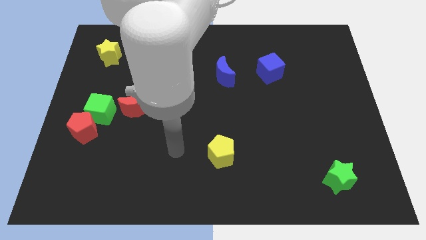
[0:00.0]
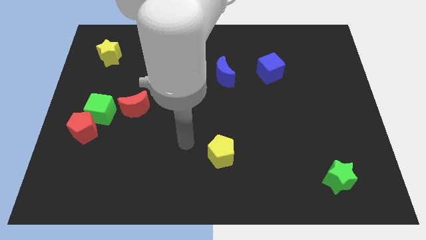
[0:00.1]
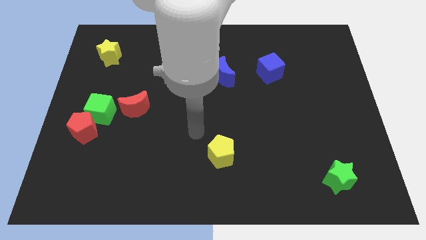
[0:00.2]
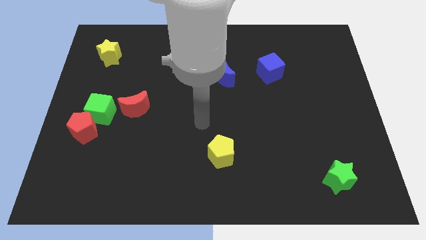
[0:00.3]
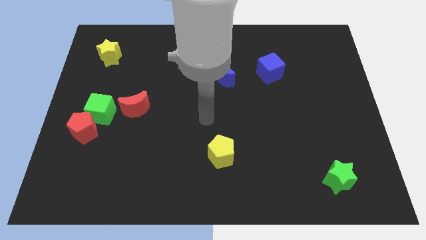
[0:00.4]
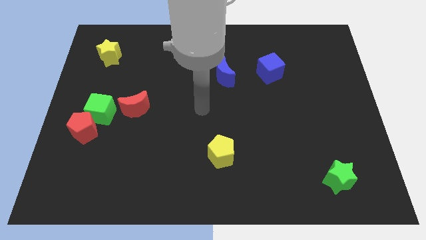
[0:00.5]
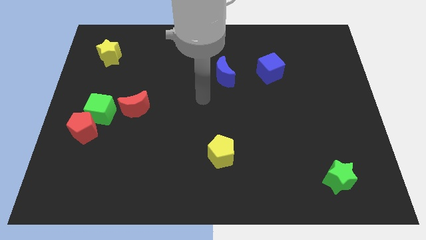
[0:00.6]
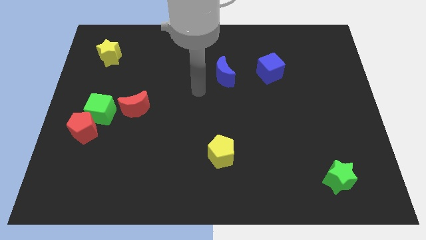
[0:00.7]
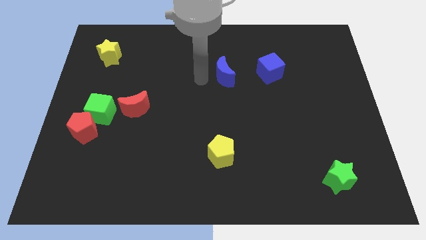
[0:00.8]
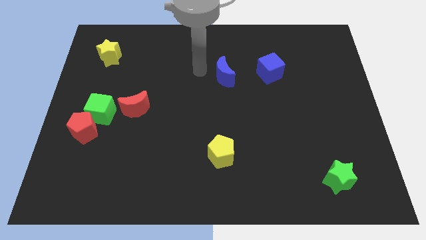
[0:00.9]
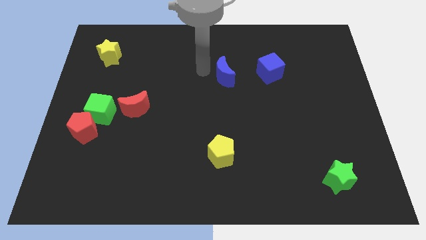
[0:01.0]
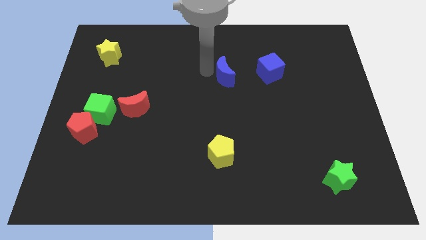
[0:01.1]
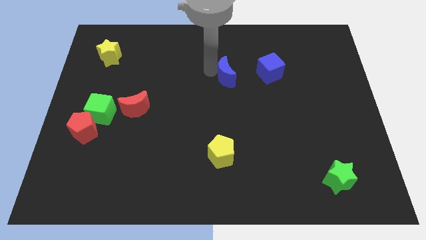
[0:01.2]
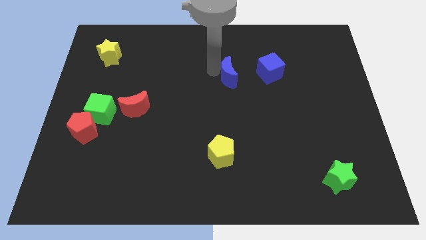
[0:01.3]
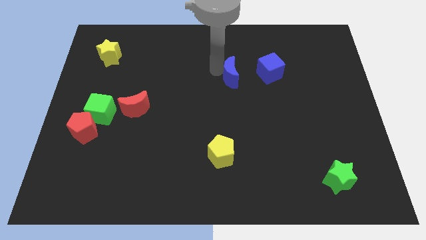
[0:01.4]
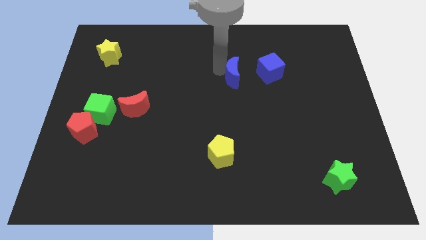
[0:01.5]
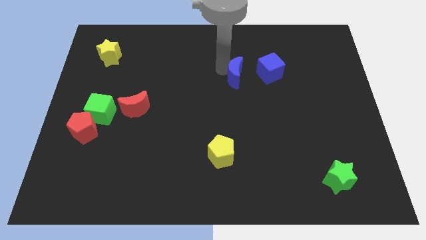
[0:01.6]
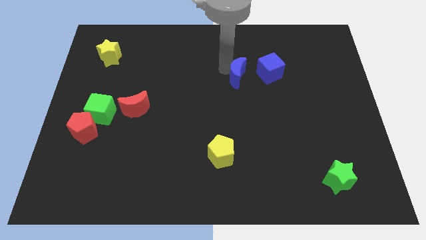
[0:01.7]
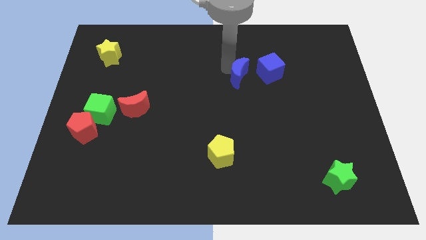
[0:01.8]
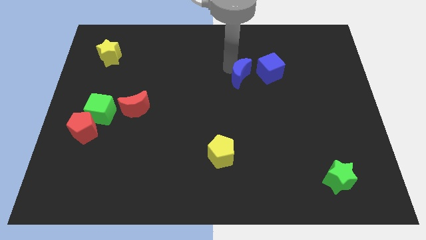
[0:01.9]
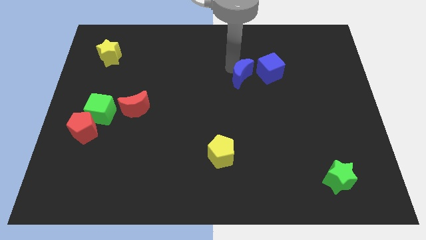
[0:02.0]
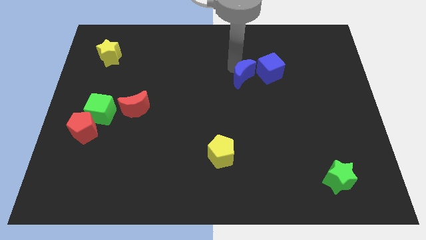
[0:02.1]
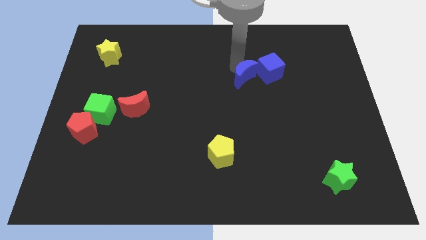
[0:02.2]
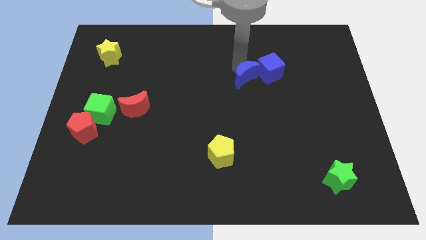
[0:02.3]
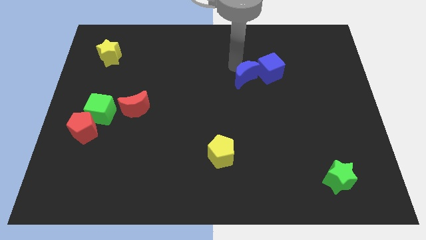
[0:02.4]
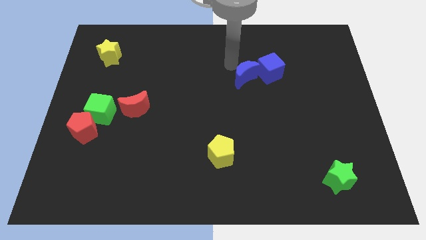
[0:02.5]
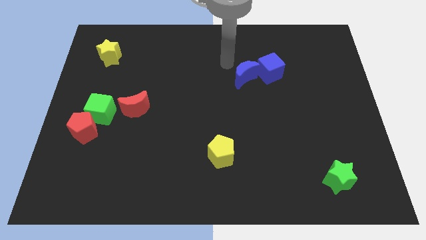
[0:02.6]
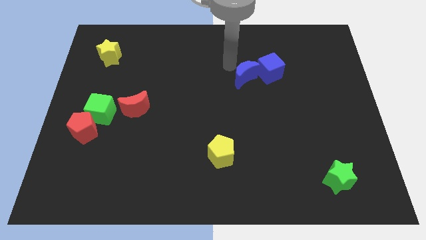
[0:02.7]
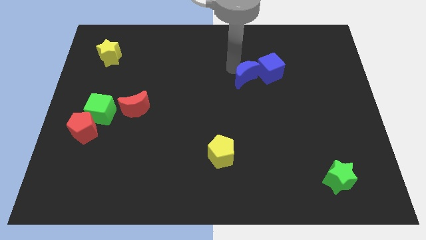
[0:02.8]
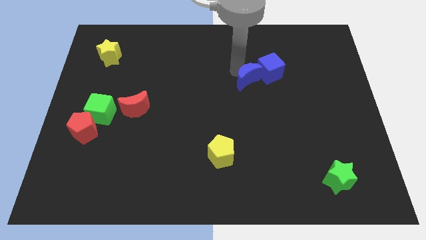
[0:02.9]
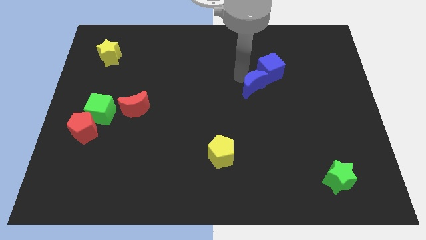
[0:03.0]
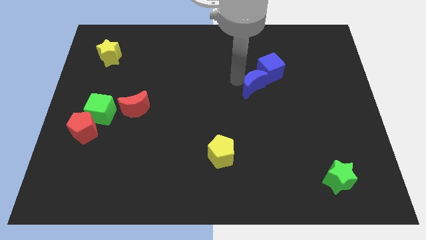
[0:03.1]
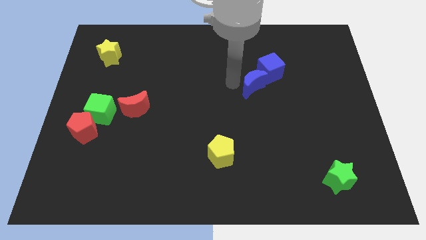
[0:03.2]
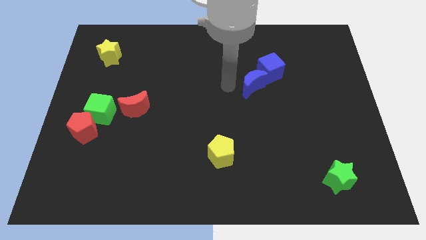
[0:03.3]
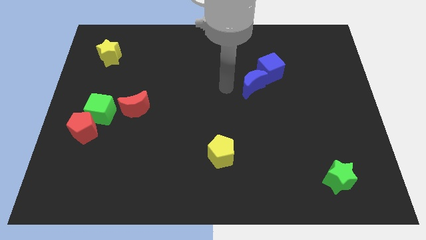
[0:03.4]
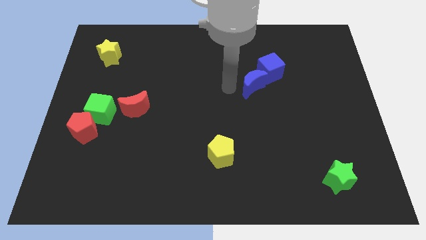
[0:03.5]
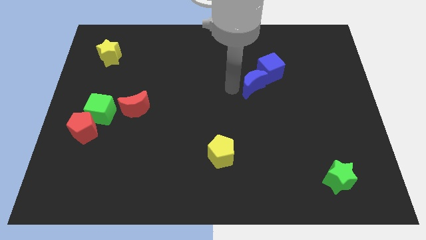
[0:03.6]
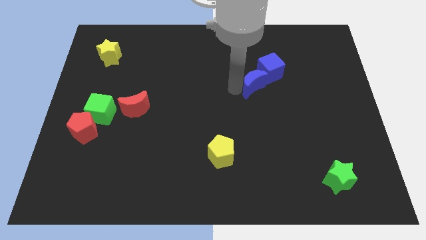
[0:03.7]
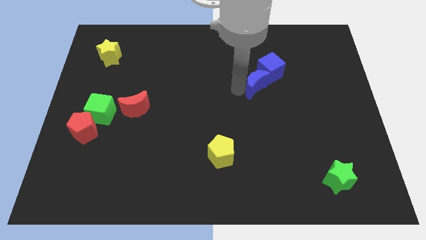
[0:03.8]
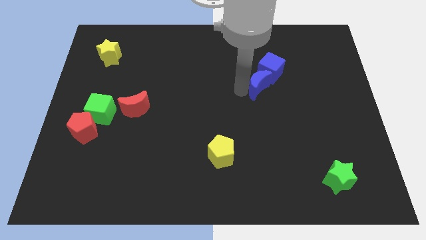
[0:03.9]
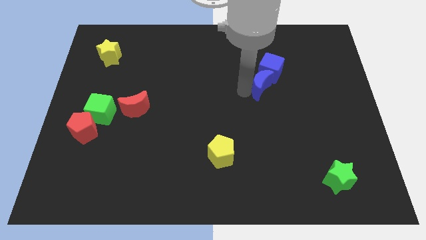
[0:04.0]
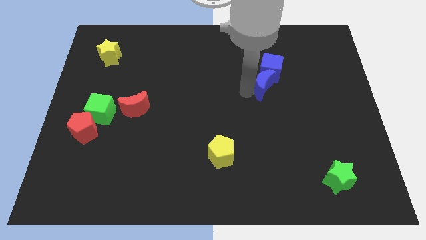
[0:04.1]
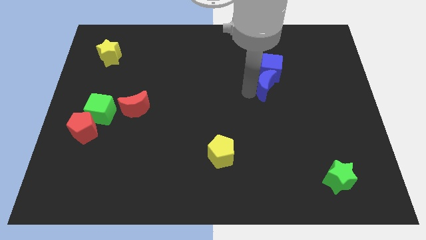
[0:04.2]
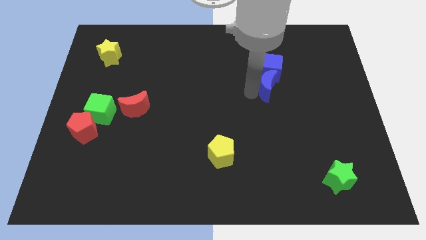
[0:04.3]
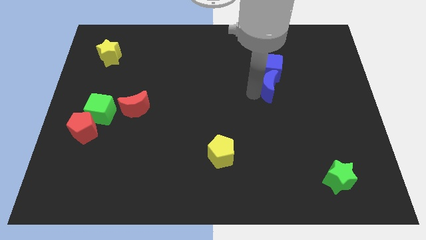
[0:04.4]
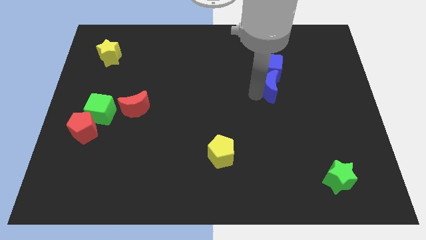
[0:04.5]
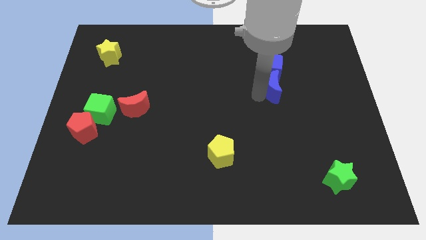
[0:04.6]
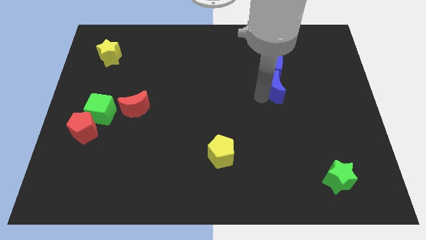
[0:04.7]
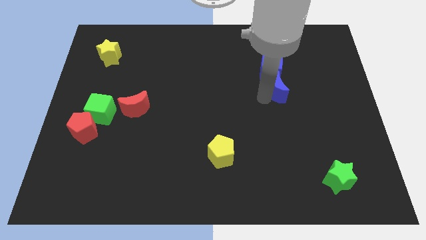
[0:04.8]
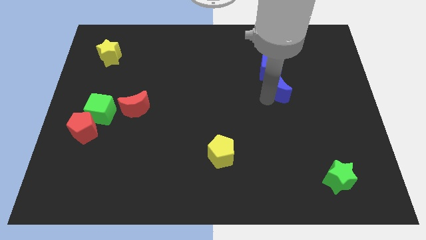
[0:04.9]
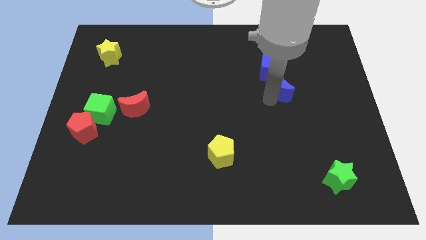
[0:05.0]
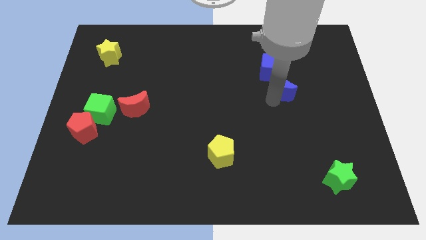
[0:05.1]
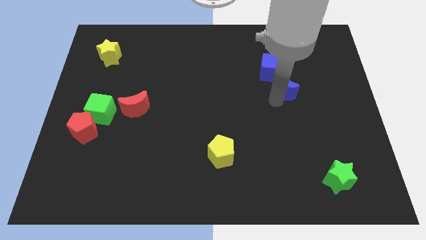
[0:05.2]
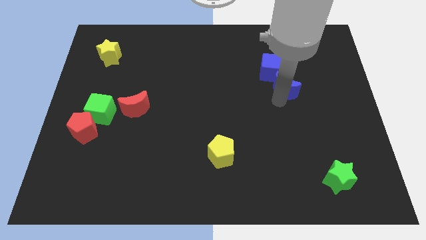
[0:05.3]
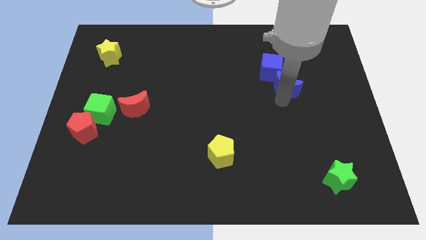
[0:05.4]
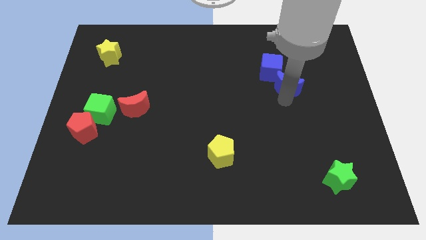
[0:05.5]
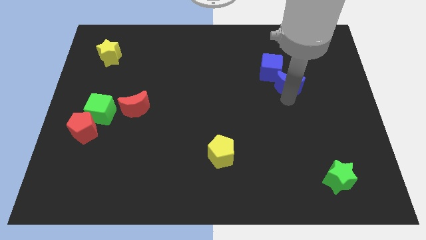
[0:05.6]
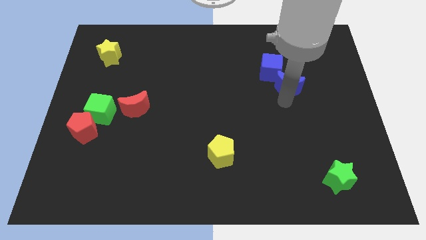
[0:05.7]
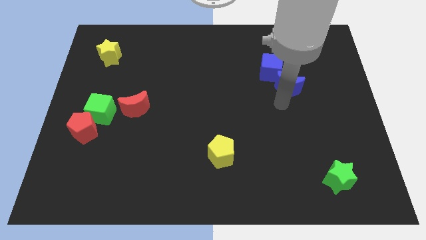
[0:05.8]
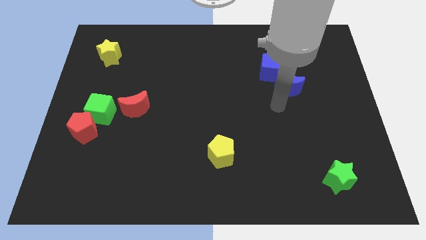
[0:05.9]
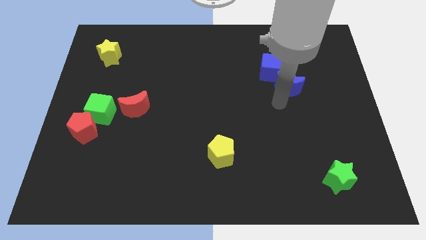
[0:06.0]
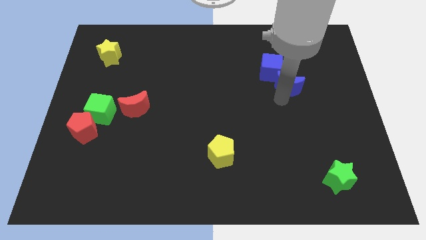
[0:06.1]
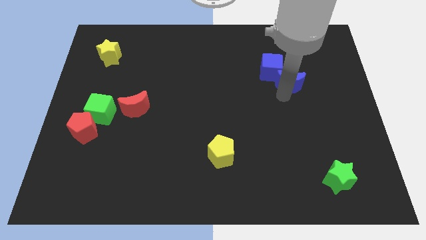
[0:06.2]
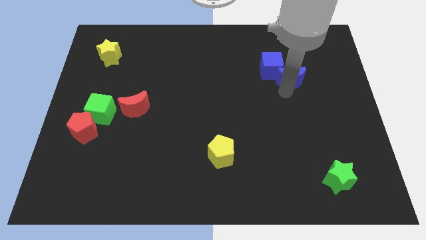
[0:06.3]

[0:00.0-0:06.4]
put the blue moon just right of the blue cube

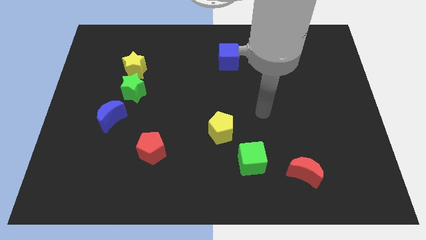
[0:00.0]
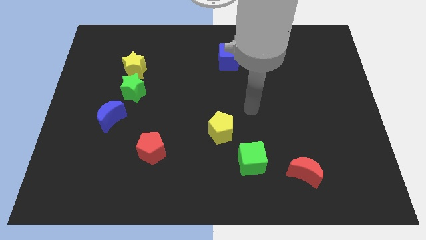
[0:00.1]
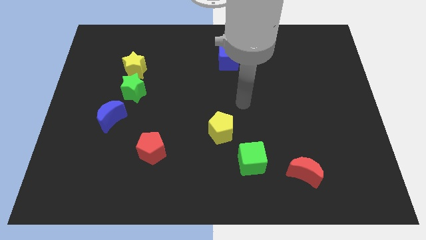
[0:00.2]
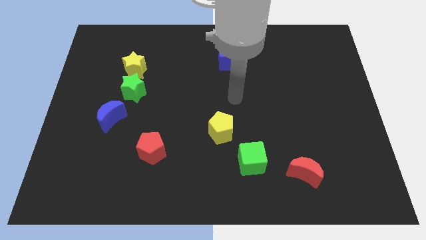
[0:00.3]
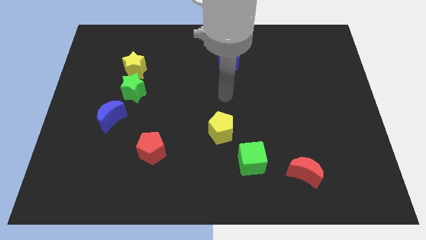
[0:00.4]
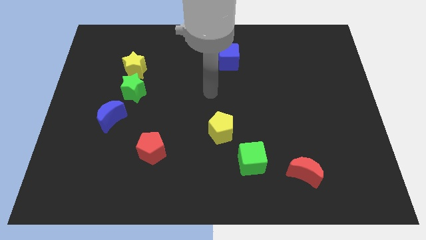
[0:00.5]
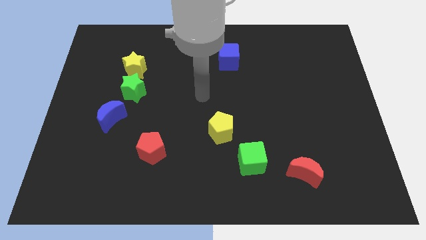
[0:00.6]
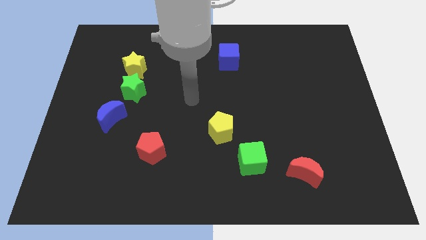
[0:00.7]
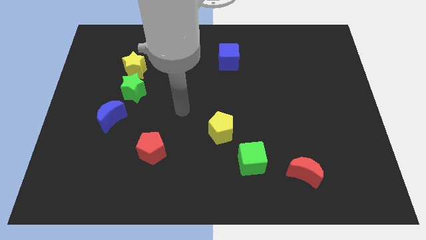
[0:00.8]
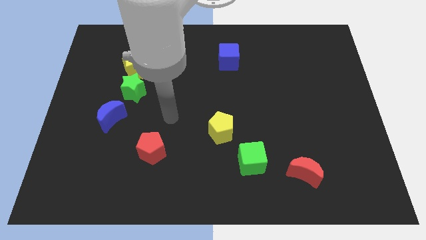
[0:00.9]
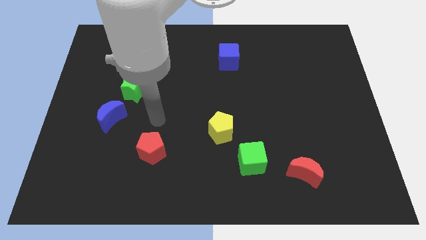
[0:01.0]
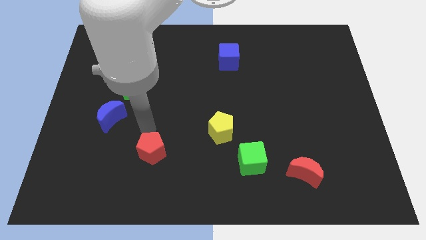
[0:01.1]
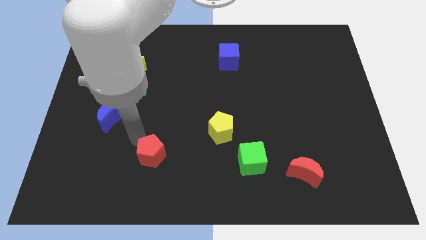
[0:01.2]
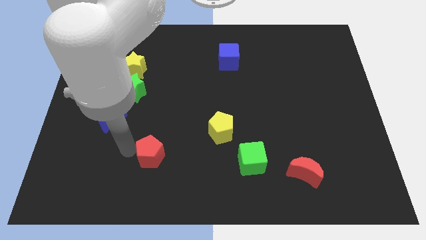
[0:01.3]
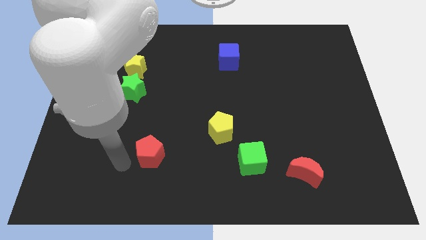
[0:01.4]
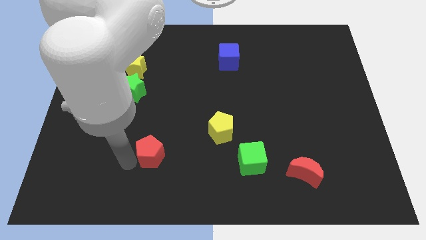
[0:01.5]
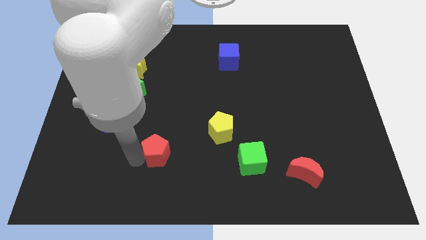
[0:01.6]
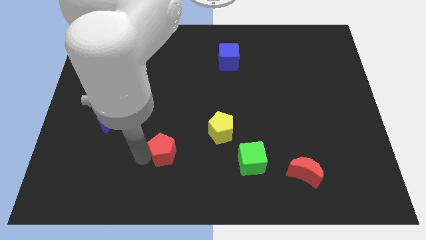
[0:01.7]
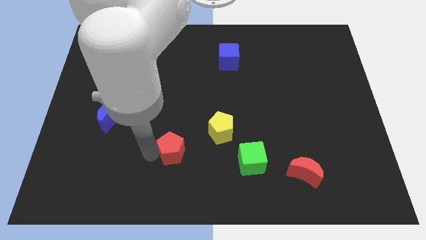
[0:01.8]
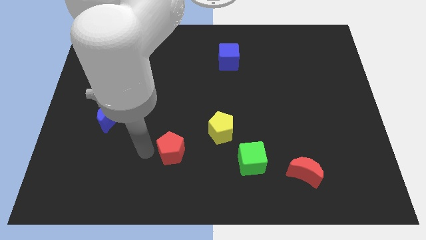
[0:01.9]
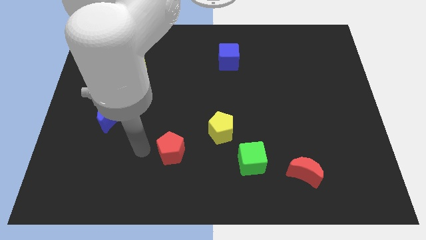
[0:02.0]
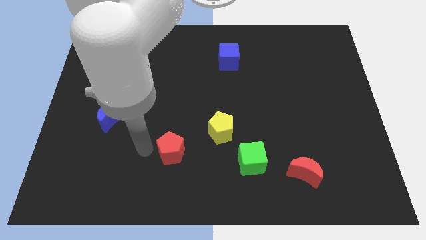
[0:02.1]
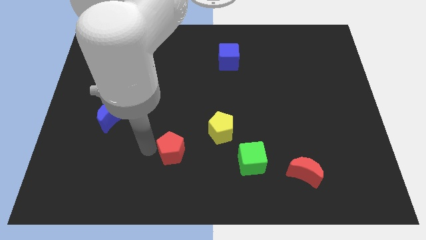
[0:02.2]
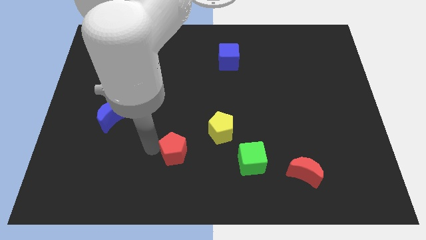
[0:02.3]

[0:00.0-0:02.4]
move the red pentagon diagonally down and to the left of the yellow pentagon
